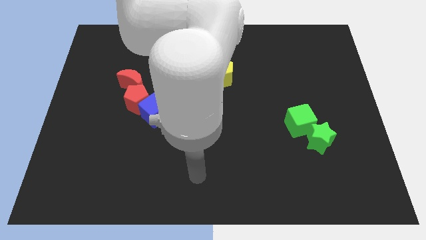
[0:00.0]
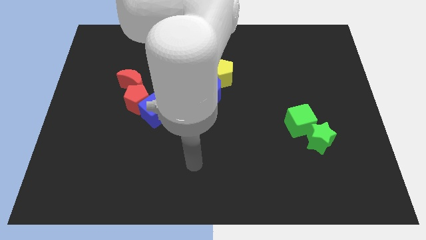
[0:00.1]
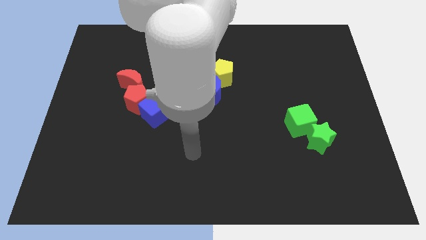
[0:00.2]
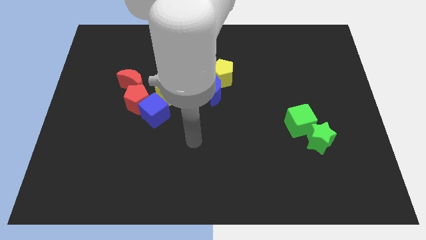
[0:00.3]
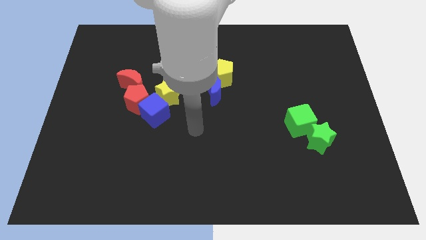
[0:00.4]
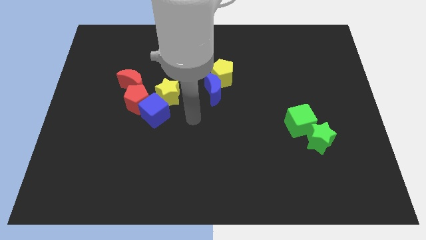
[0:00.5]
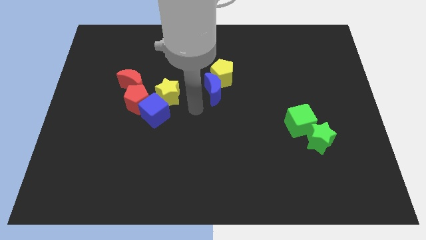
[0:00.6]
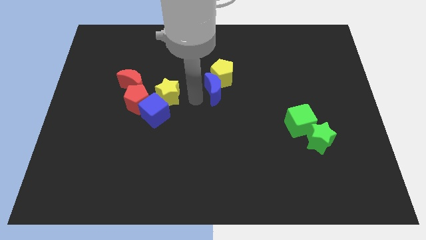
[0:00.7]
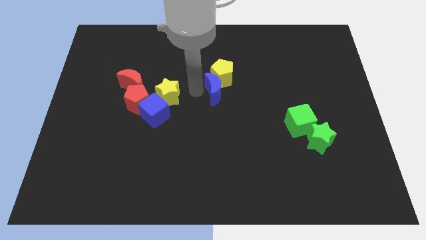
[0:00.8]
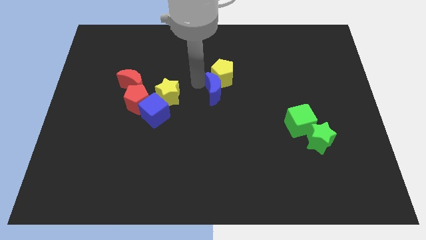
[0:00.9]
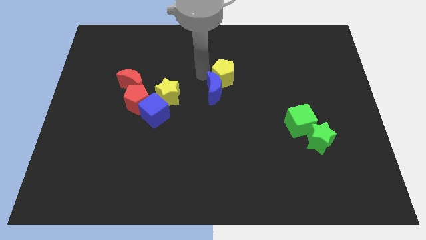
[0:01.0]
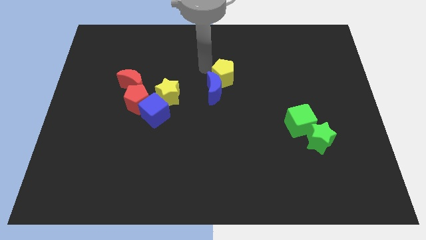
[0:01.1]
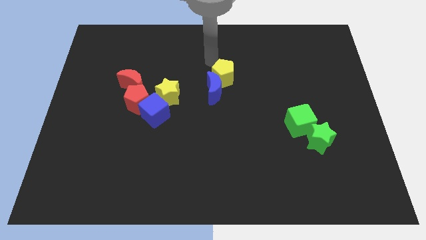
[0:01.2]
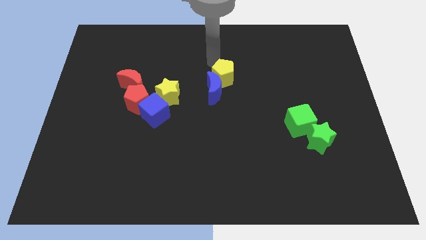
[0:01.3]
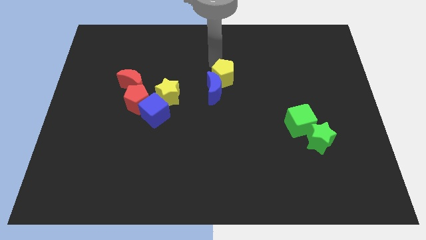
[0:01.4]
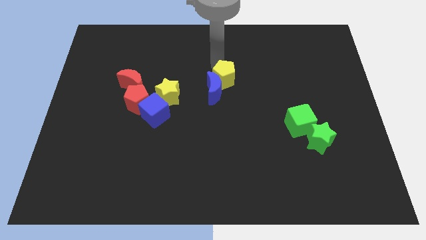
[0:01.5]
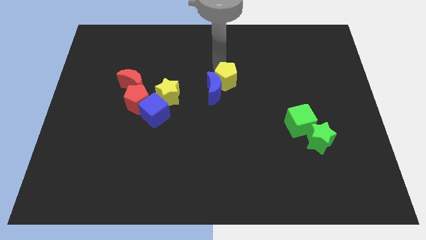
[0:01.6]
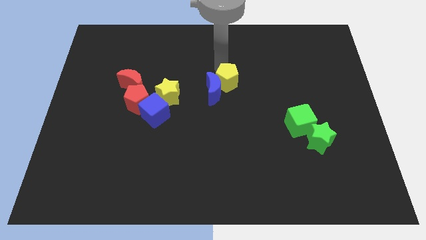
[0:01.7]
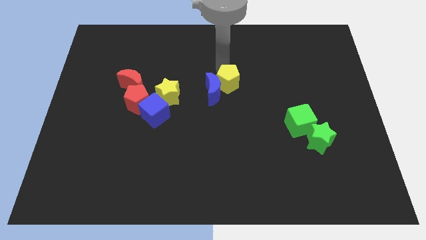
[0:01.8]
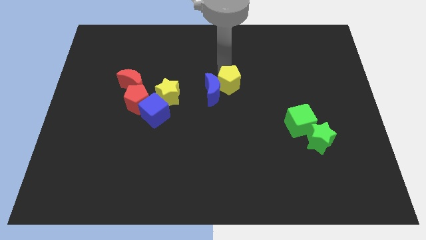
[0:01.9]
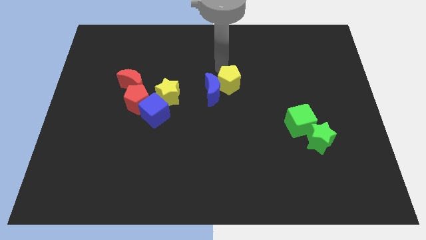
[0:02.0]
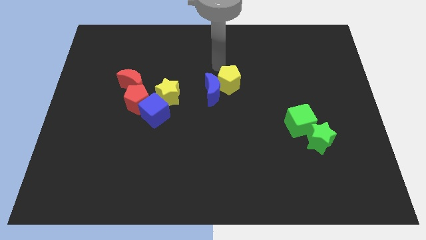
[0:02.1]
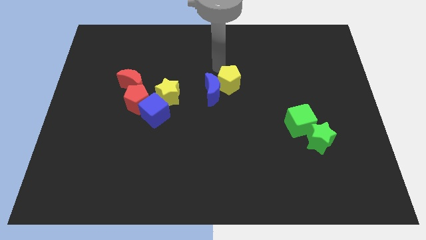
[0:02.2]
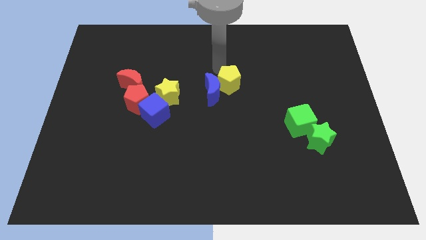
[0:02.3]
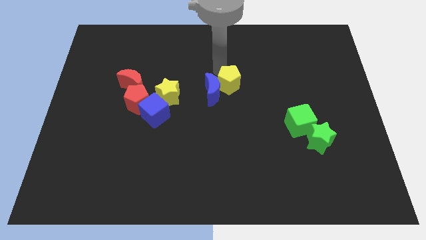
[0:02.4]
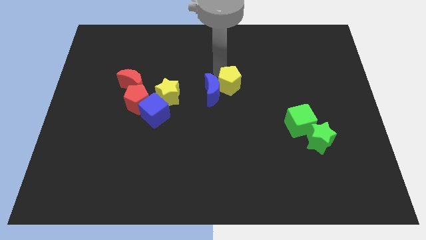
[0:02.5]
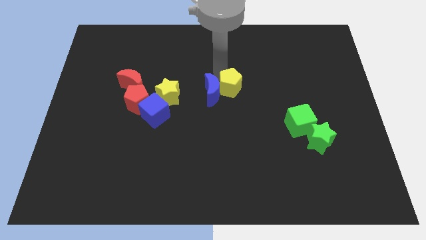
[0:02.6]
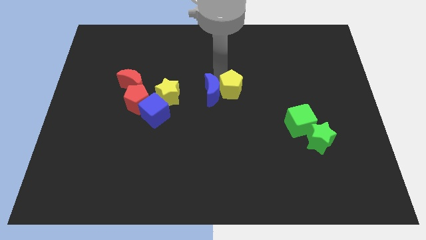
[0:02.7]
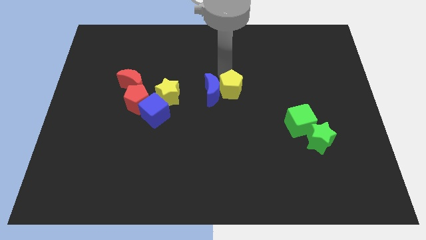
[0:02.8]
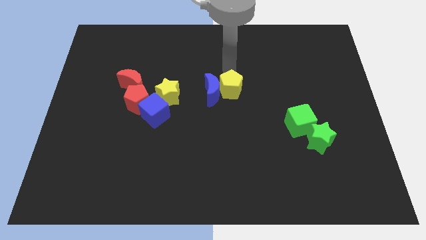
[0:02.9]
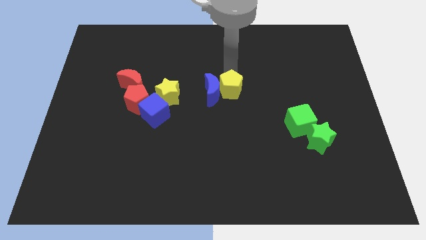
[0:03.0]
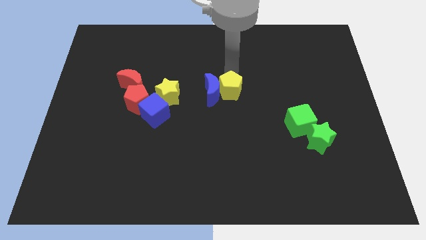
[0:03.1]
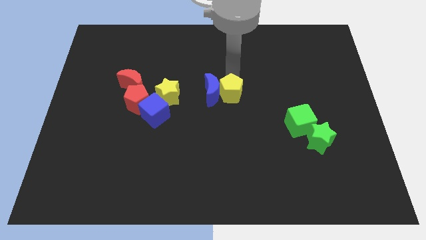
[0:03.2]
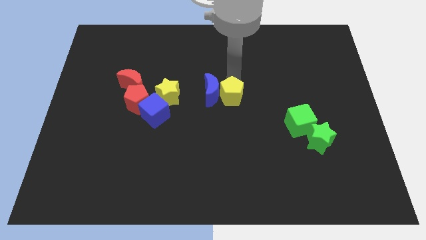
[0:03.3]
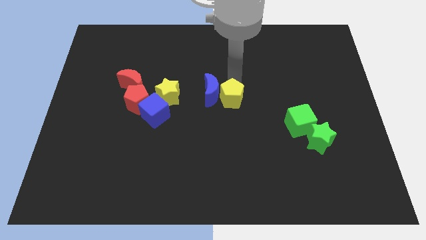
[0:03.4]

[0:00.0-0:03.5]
slide the yellow pentagon downwards a bit

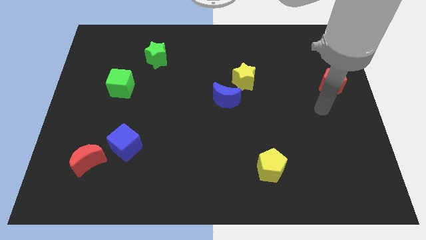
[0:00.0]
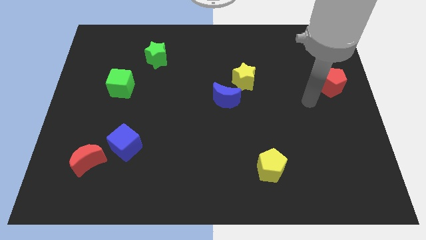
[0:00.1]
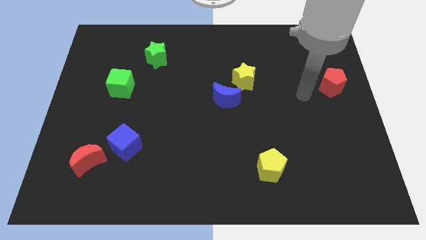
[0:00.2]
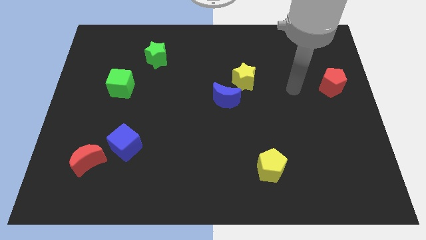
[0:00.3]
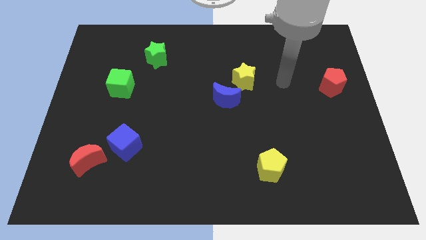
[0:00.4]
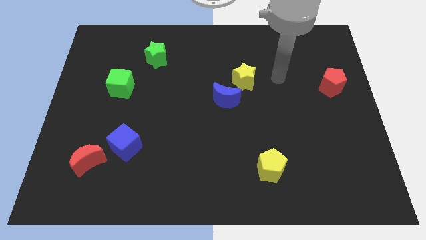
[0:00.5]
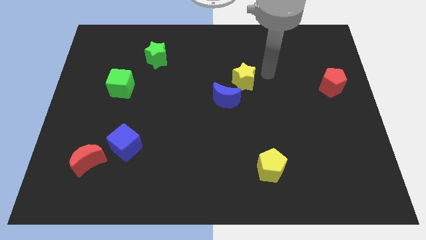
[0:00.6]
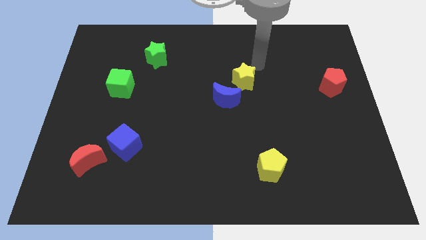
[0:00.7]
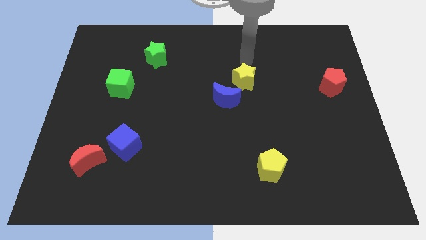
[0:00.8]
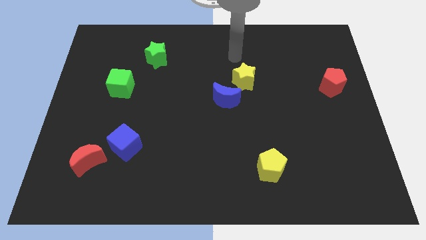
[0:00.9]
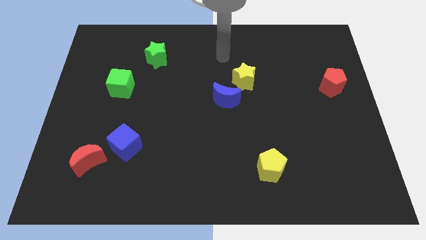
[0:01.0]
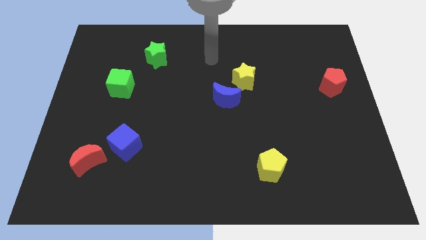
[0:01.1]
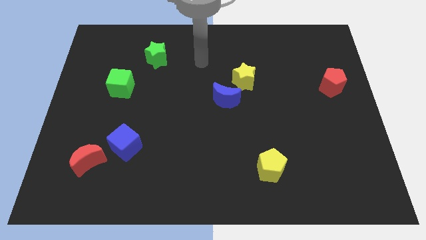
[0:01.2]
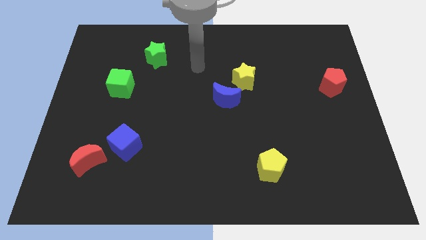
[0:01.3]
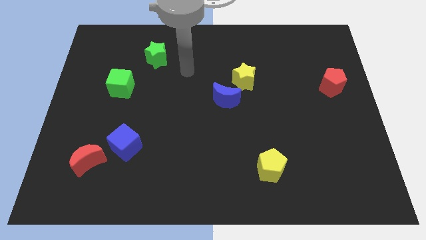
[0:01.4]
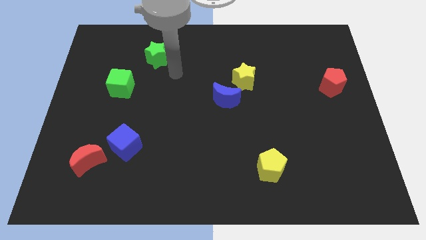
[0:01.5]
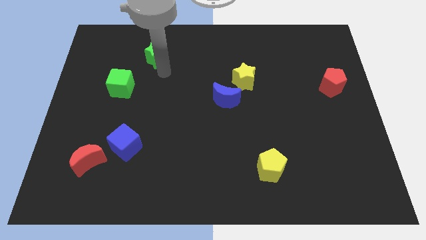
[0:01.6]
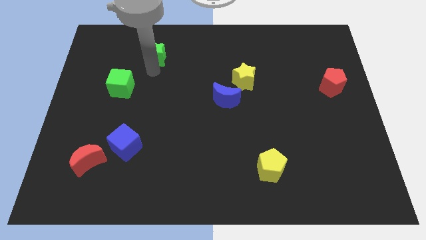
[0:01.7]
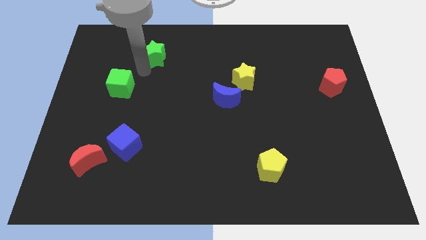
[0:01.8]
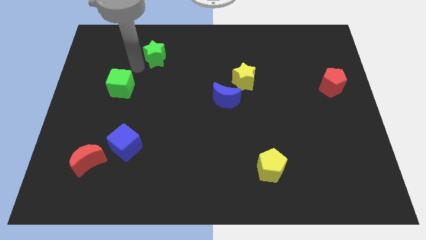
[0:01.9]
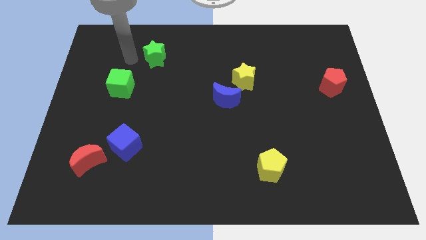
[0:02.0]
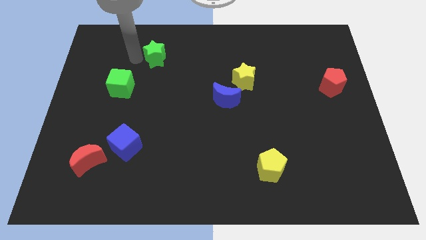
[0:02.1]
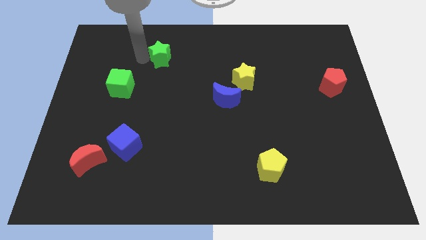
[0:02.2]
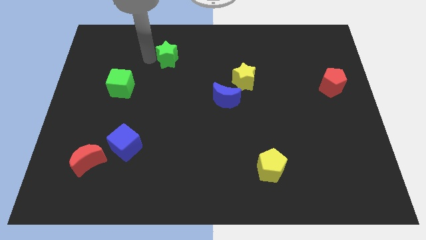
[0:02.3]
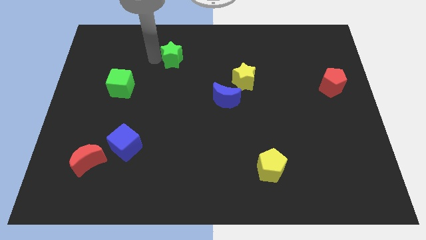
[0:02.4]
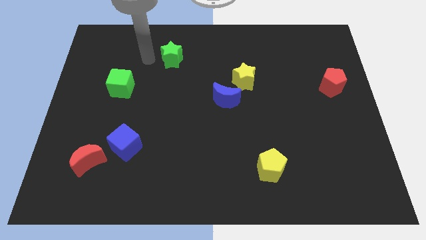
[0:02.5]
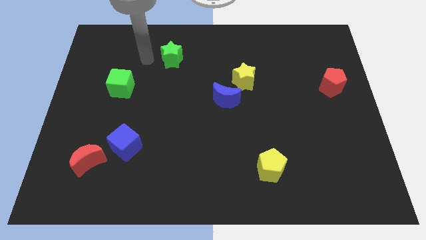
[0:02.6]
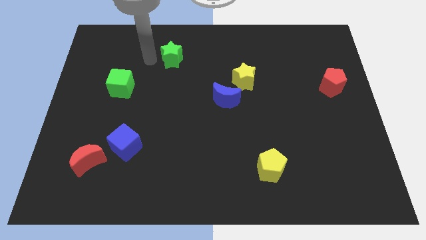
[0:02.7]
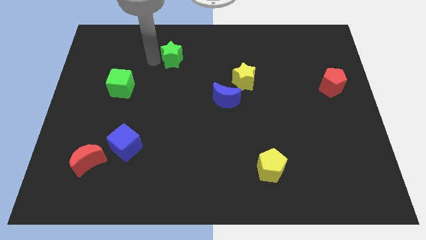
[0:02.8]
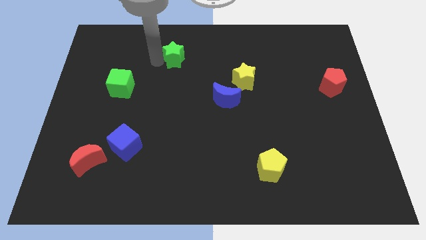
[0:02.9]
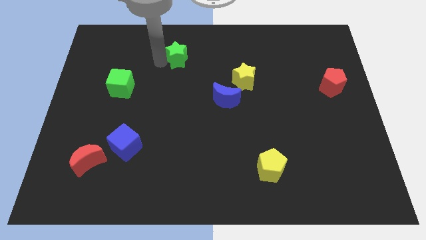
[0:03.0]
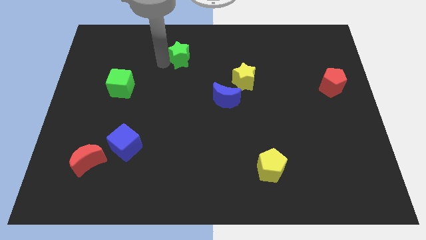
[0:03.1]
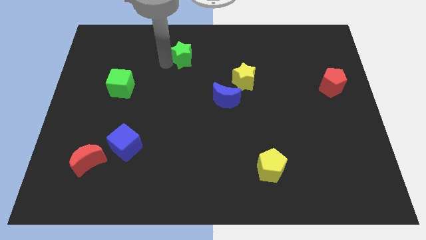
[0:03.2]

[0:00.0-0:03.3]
move the green star a little bit right

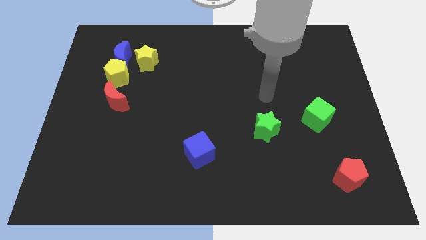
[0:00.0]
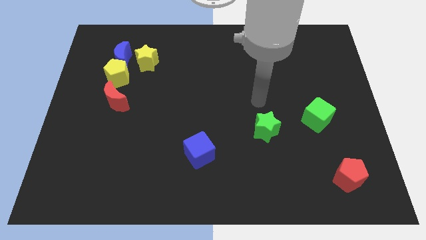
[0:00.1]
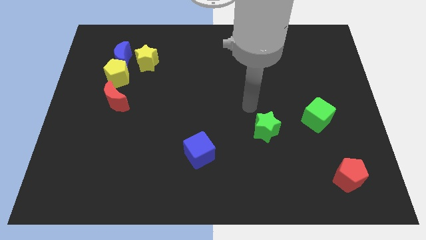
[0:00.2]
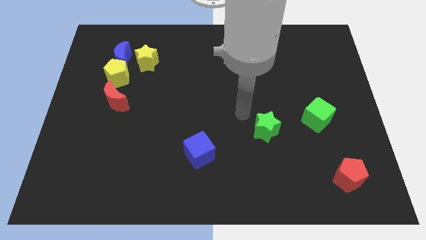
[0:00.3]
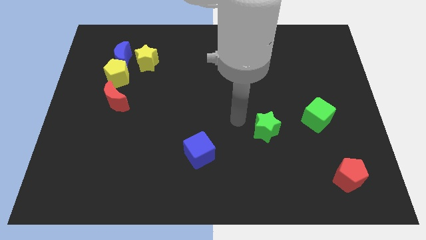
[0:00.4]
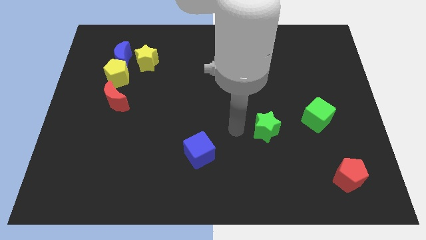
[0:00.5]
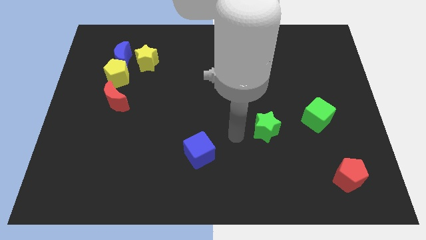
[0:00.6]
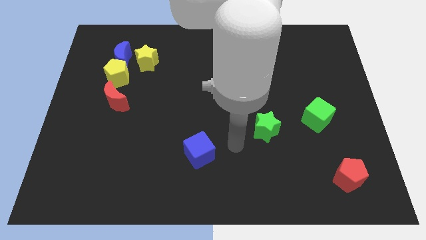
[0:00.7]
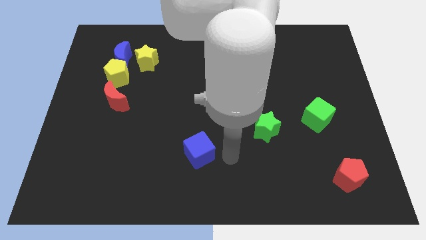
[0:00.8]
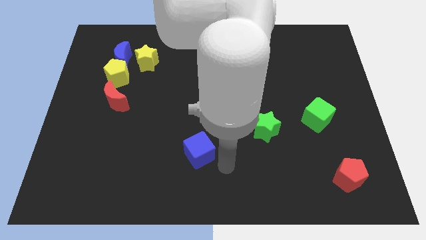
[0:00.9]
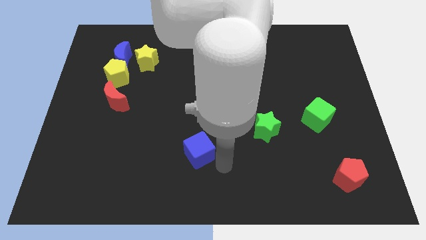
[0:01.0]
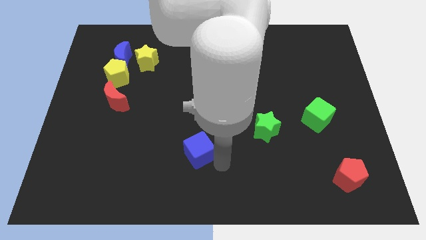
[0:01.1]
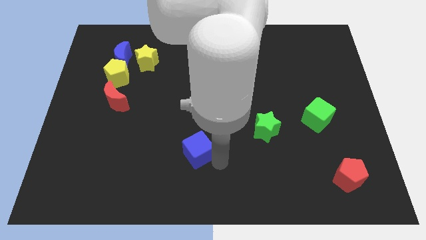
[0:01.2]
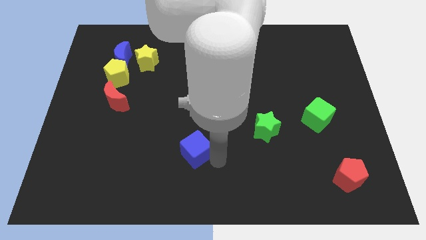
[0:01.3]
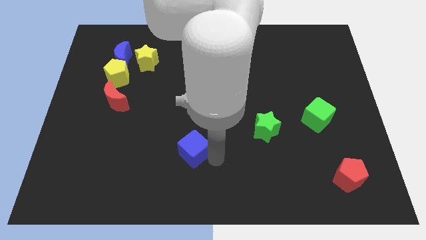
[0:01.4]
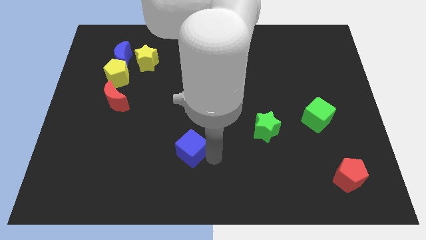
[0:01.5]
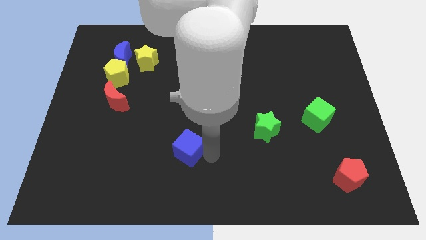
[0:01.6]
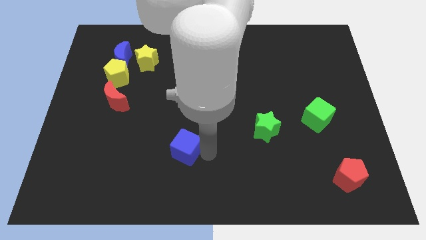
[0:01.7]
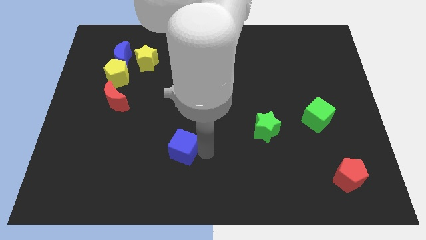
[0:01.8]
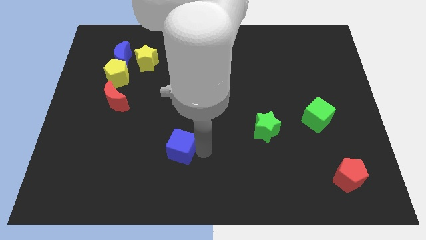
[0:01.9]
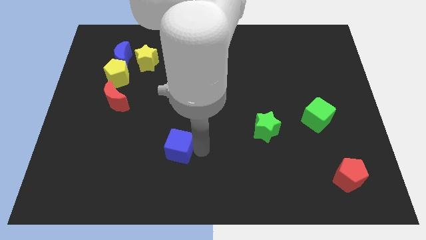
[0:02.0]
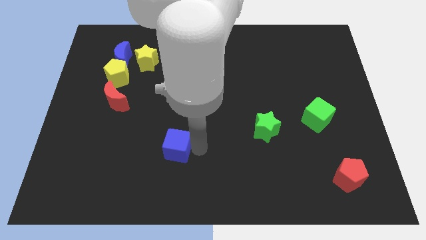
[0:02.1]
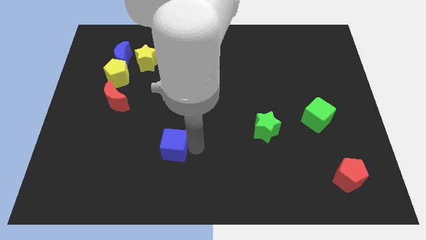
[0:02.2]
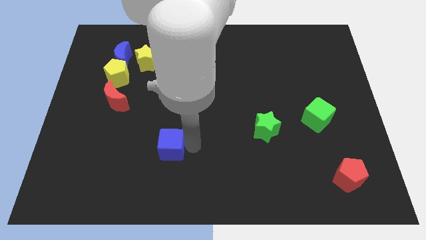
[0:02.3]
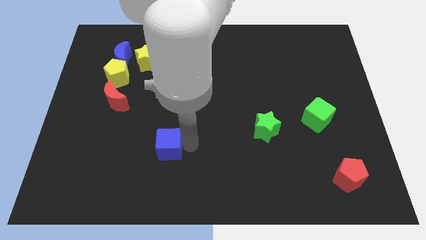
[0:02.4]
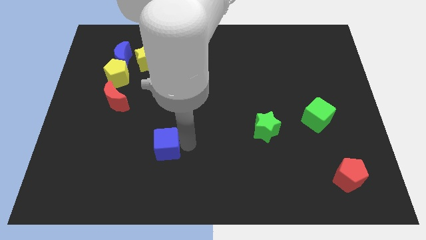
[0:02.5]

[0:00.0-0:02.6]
slightly push the blue cube left
